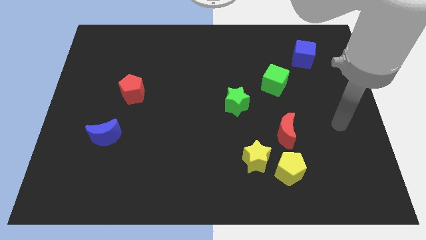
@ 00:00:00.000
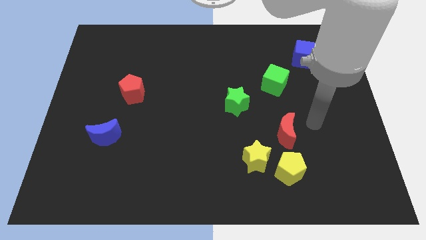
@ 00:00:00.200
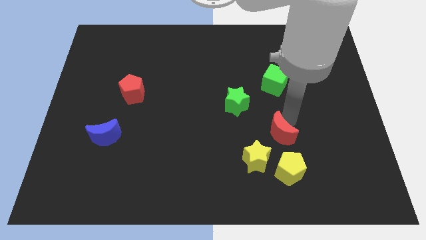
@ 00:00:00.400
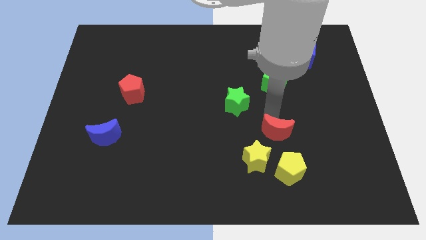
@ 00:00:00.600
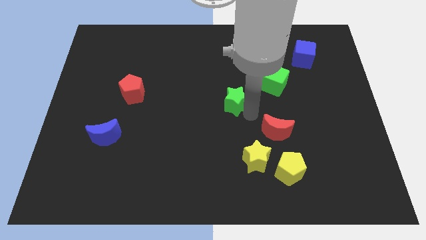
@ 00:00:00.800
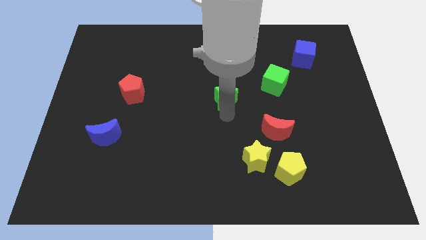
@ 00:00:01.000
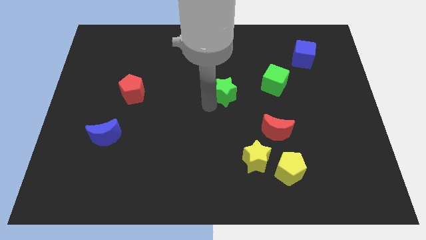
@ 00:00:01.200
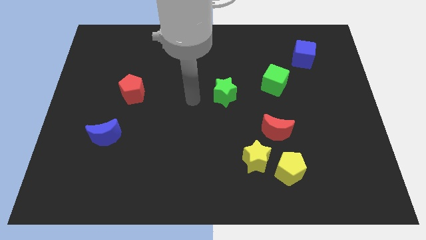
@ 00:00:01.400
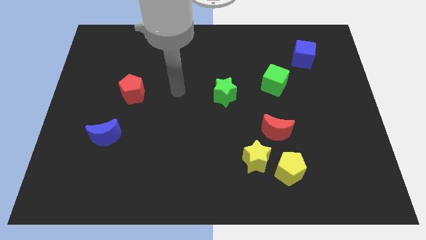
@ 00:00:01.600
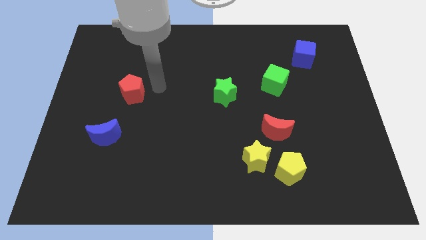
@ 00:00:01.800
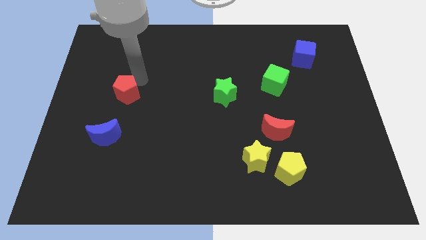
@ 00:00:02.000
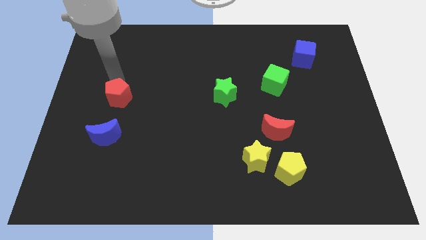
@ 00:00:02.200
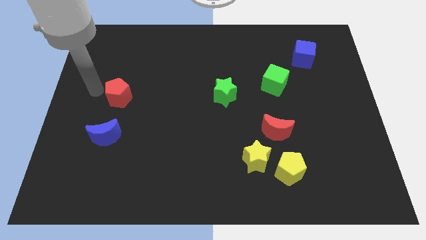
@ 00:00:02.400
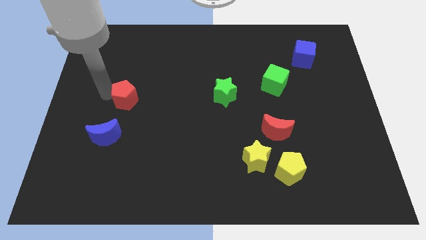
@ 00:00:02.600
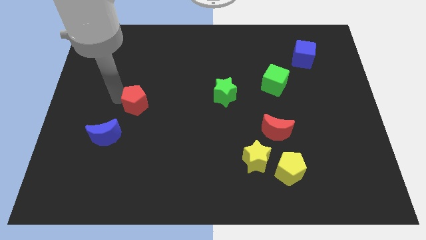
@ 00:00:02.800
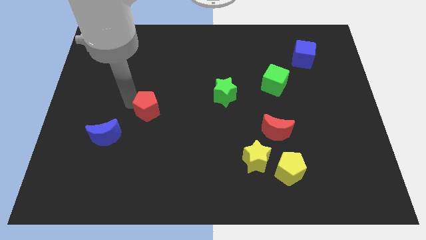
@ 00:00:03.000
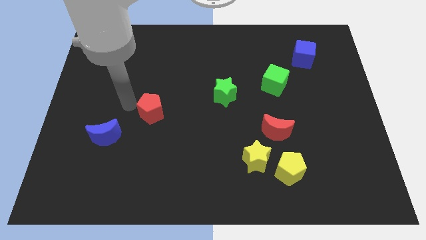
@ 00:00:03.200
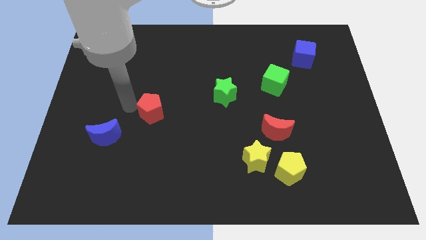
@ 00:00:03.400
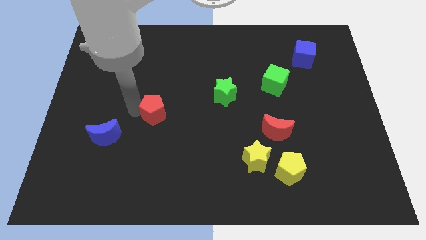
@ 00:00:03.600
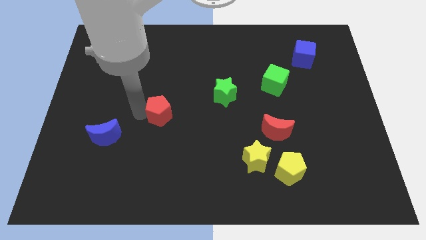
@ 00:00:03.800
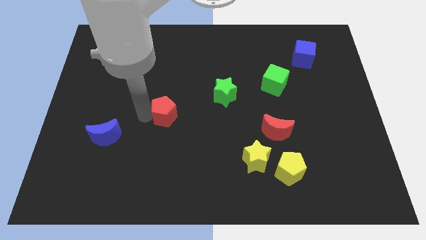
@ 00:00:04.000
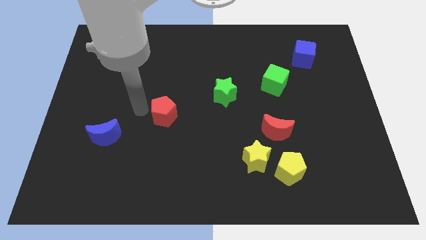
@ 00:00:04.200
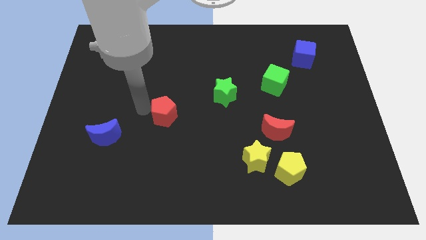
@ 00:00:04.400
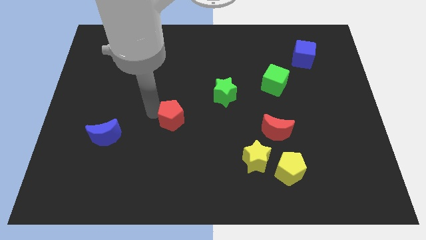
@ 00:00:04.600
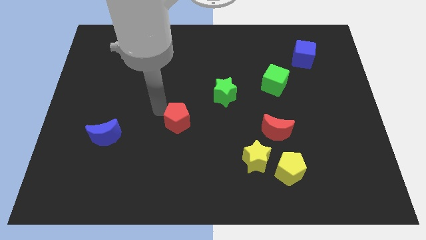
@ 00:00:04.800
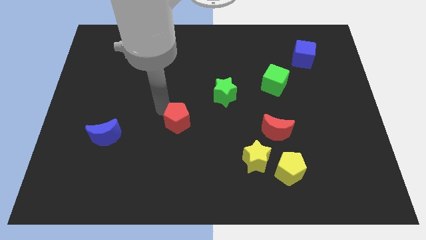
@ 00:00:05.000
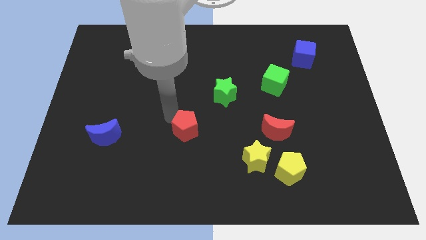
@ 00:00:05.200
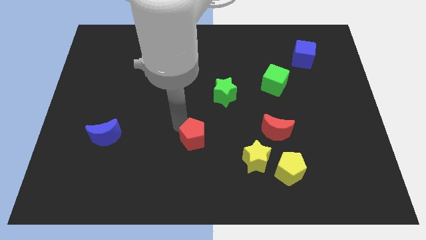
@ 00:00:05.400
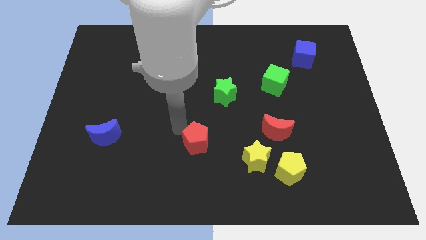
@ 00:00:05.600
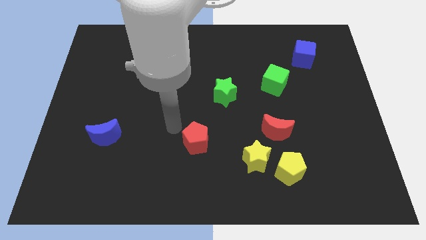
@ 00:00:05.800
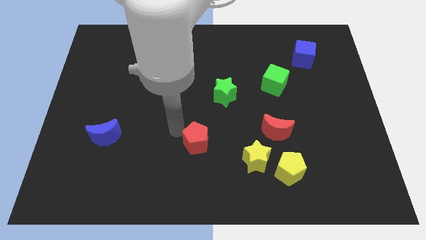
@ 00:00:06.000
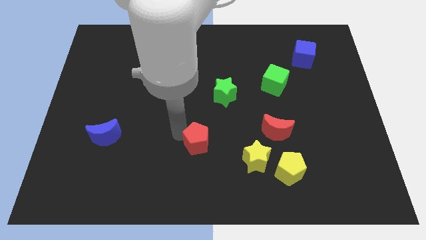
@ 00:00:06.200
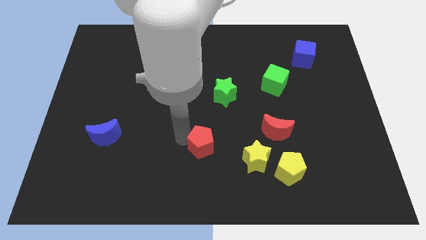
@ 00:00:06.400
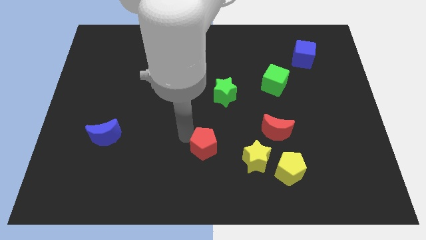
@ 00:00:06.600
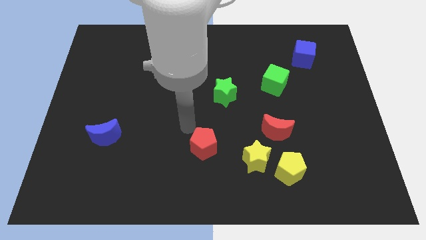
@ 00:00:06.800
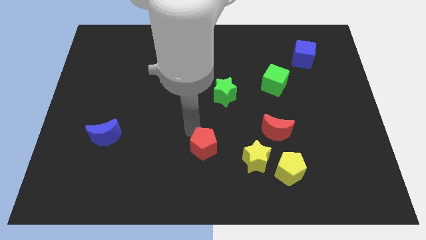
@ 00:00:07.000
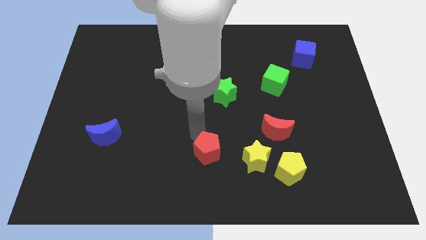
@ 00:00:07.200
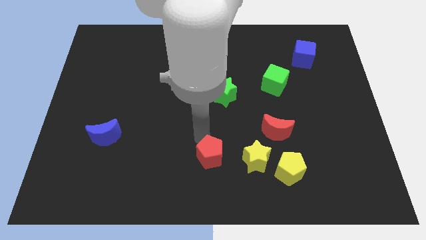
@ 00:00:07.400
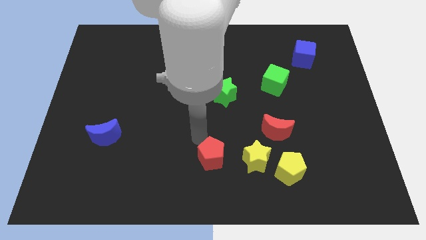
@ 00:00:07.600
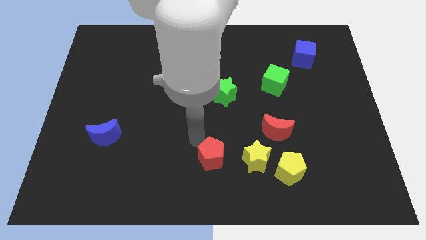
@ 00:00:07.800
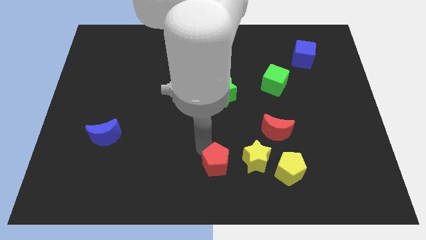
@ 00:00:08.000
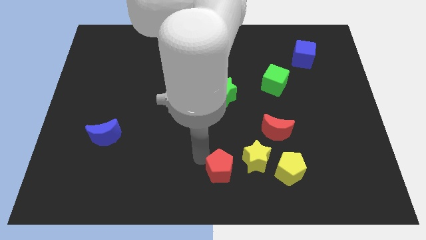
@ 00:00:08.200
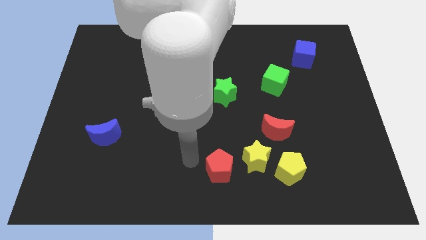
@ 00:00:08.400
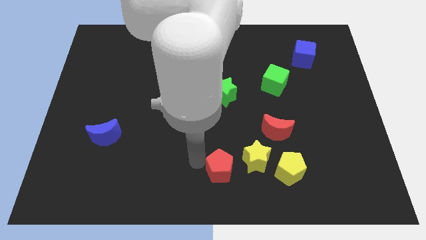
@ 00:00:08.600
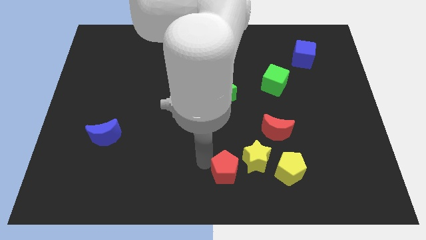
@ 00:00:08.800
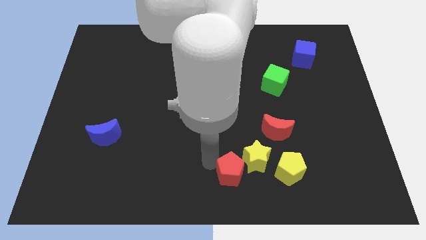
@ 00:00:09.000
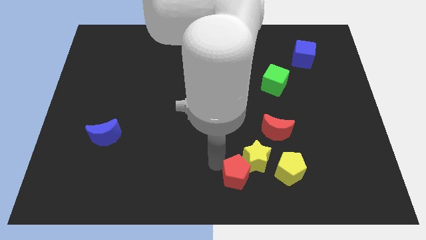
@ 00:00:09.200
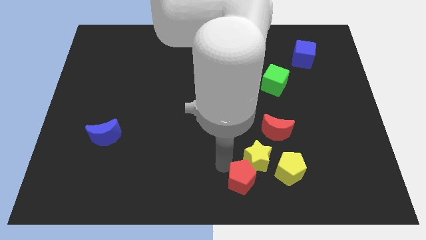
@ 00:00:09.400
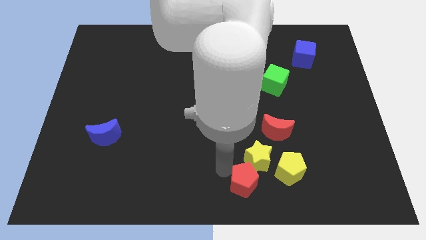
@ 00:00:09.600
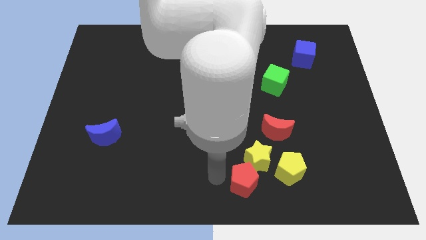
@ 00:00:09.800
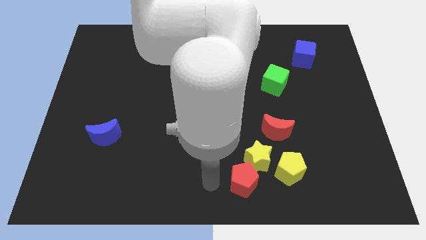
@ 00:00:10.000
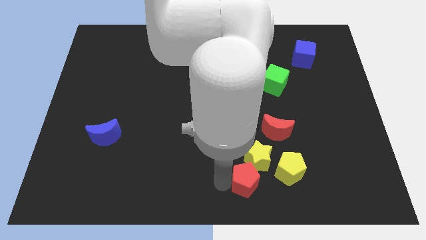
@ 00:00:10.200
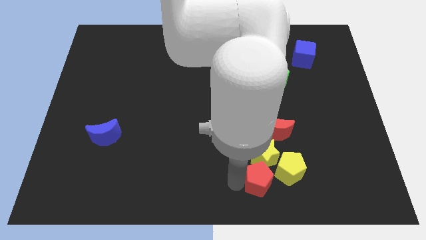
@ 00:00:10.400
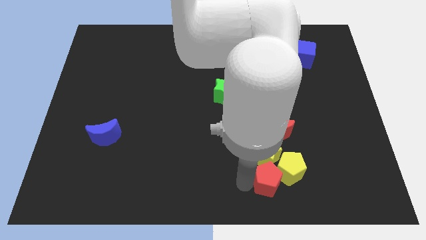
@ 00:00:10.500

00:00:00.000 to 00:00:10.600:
put the red pentagon next to the yellow pentagon

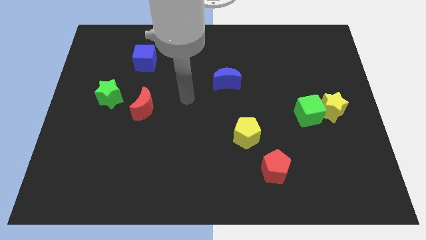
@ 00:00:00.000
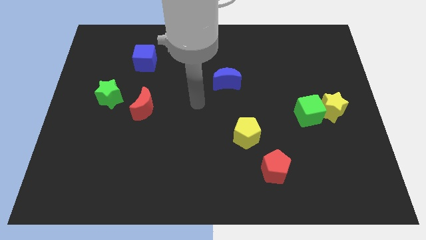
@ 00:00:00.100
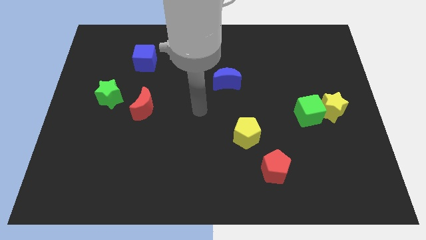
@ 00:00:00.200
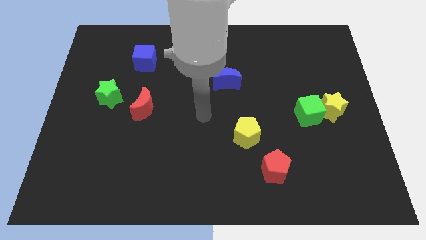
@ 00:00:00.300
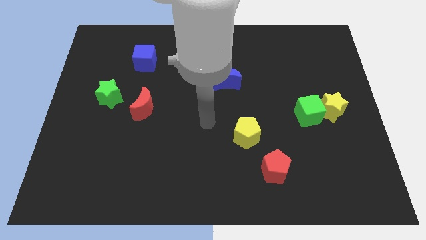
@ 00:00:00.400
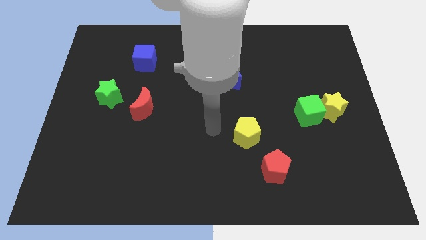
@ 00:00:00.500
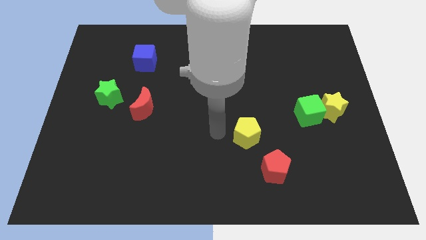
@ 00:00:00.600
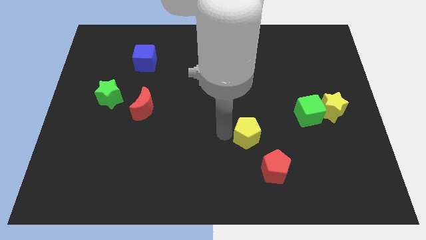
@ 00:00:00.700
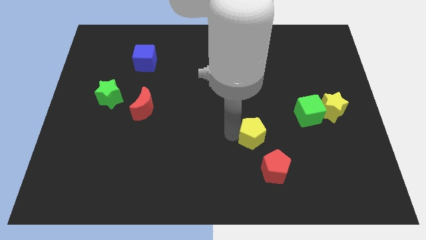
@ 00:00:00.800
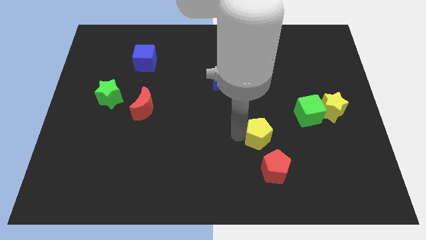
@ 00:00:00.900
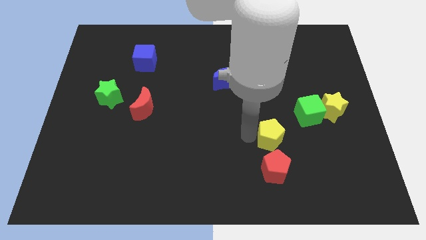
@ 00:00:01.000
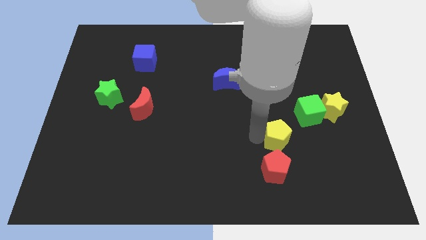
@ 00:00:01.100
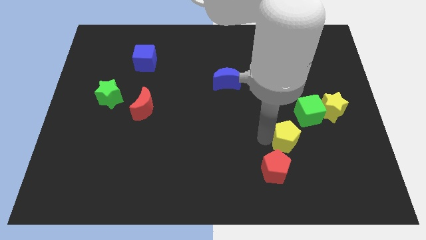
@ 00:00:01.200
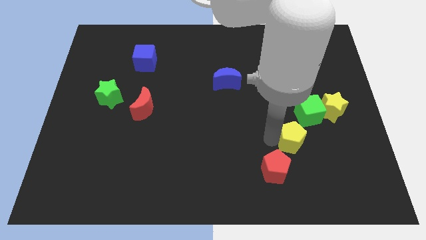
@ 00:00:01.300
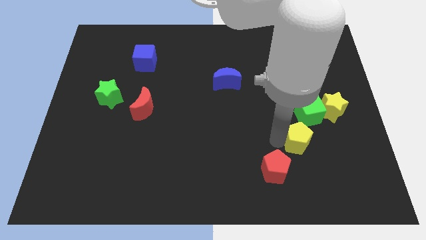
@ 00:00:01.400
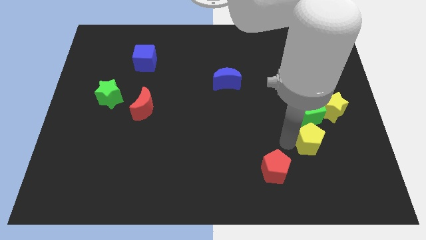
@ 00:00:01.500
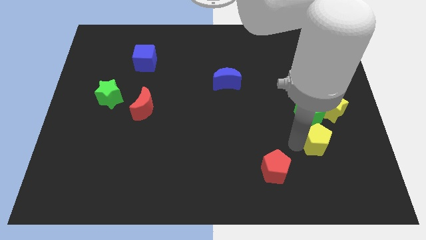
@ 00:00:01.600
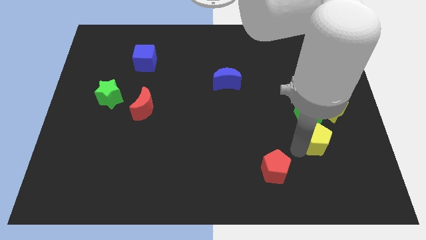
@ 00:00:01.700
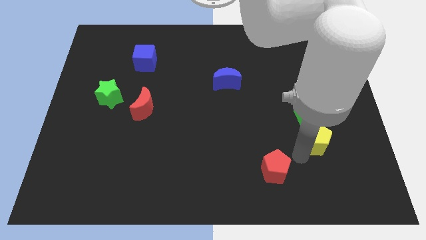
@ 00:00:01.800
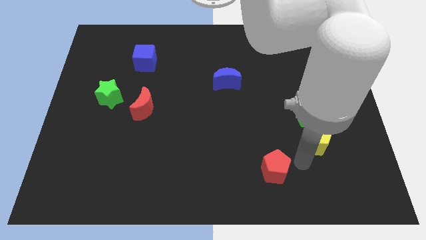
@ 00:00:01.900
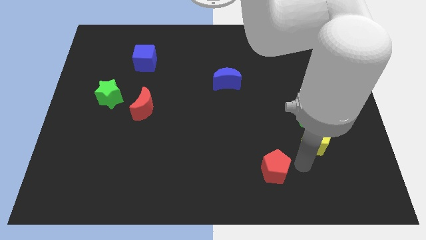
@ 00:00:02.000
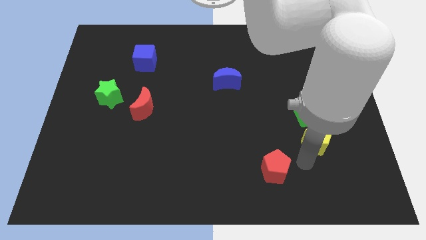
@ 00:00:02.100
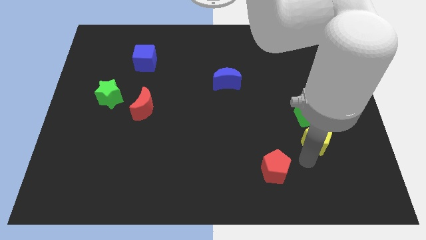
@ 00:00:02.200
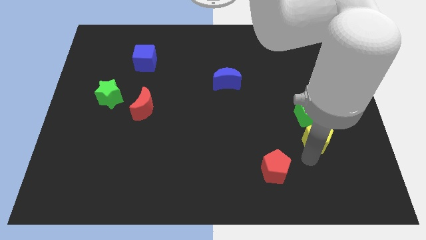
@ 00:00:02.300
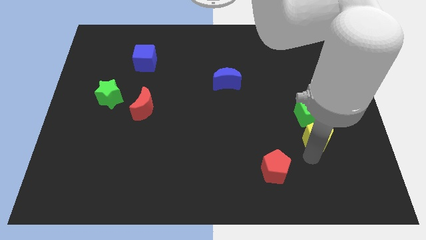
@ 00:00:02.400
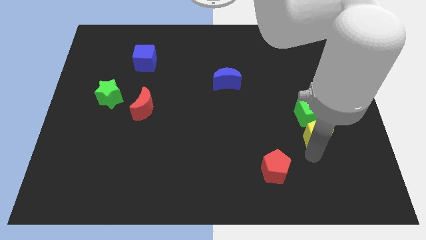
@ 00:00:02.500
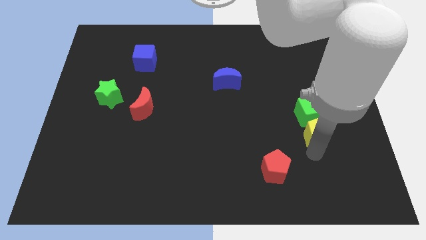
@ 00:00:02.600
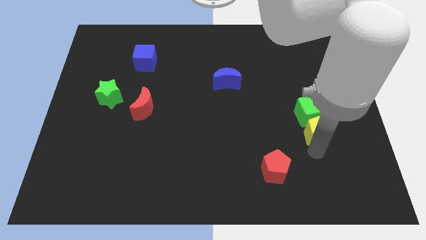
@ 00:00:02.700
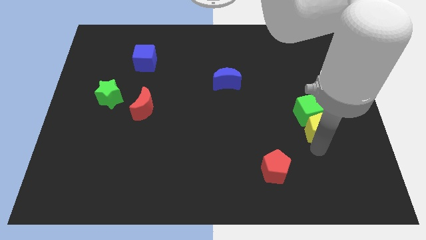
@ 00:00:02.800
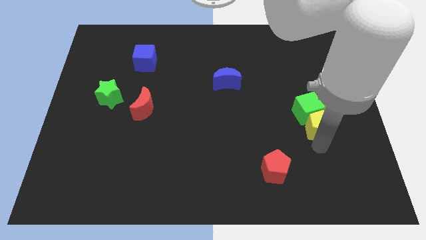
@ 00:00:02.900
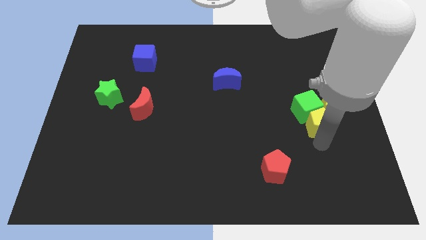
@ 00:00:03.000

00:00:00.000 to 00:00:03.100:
move the yellow pentagon close to the yellow star
